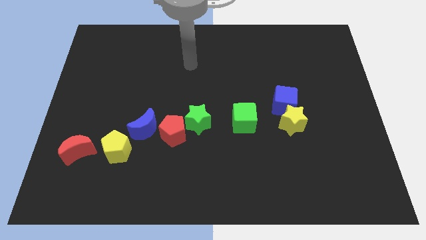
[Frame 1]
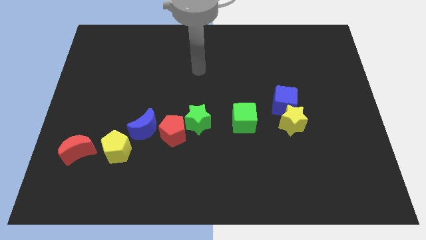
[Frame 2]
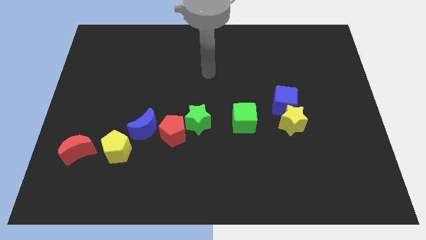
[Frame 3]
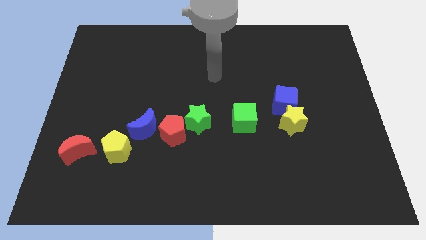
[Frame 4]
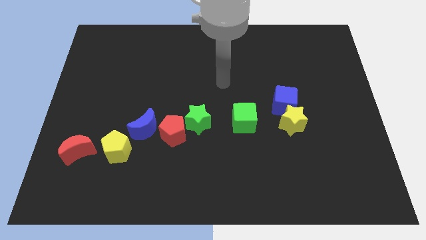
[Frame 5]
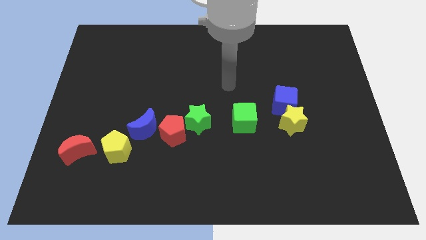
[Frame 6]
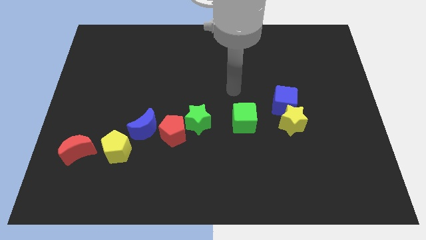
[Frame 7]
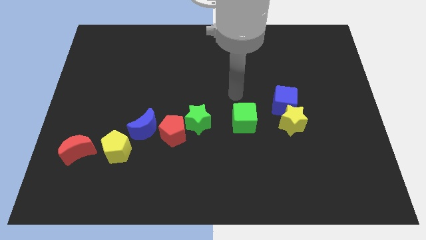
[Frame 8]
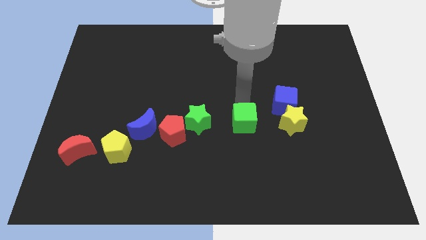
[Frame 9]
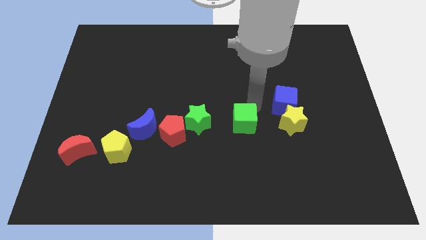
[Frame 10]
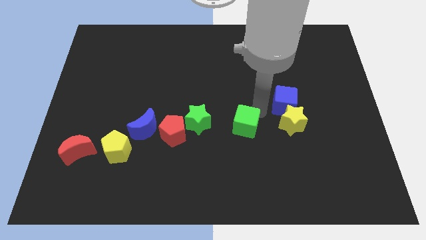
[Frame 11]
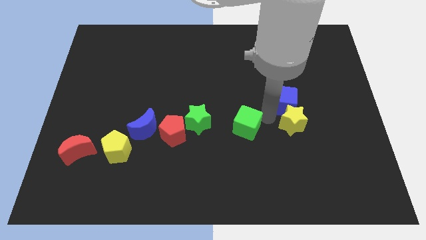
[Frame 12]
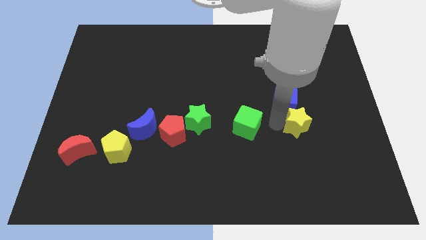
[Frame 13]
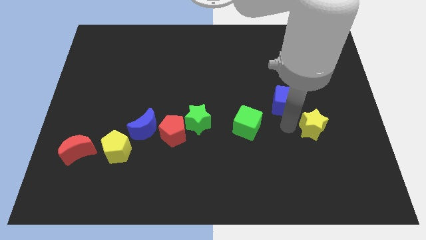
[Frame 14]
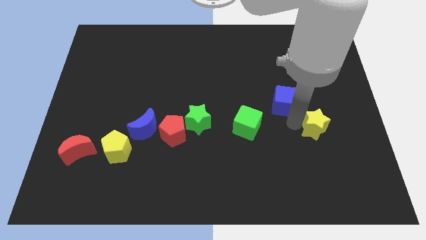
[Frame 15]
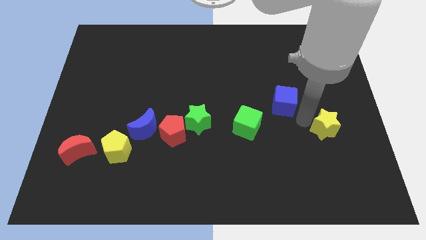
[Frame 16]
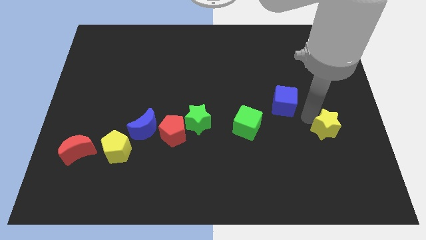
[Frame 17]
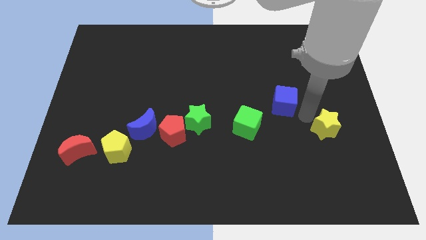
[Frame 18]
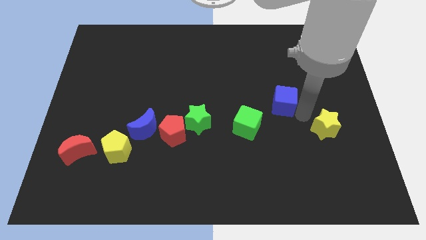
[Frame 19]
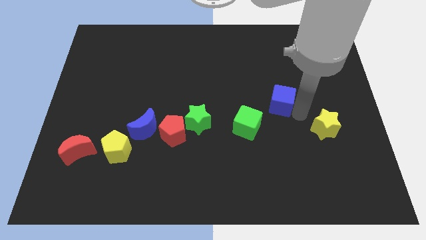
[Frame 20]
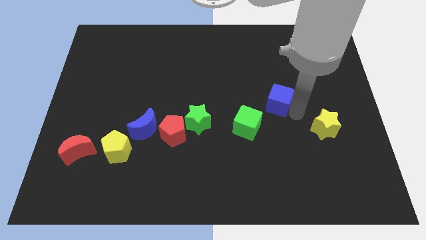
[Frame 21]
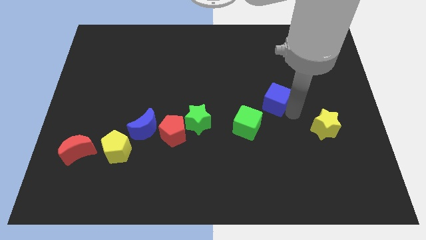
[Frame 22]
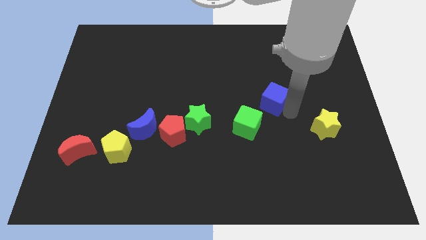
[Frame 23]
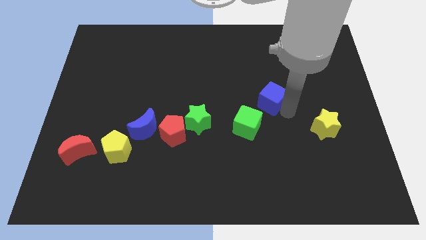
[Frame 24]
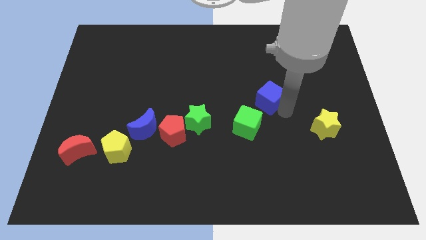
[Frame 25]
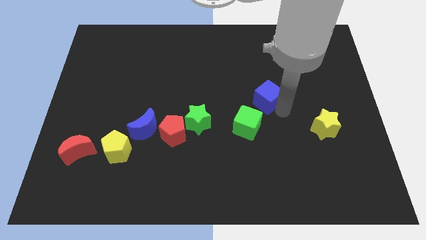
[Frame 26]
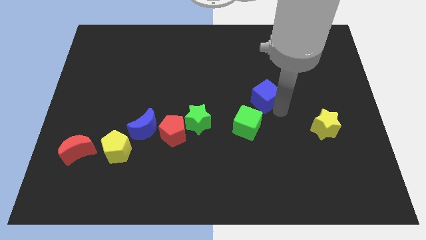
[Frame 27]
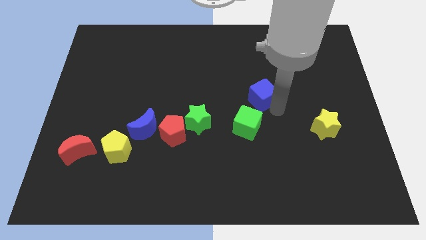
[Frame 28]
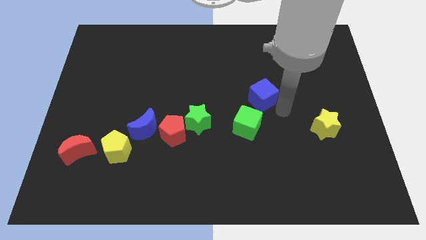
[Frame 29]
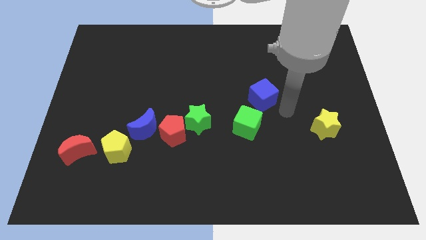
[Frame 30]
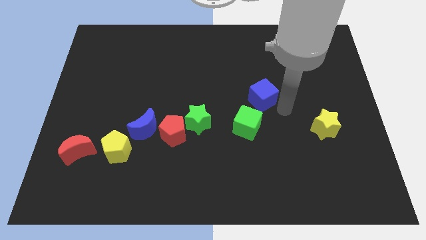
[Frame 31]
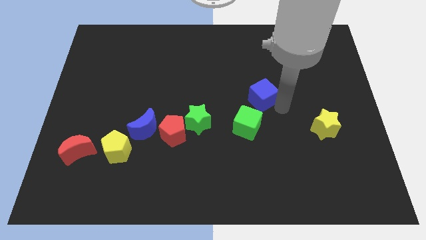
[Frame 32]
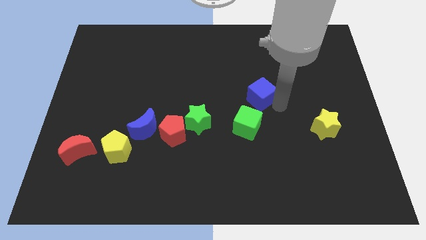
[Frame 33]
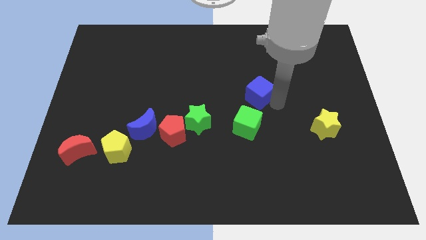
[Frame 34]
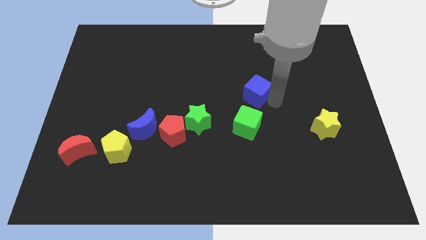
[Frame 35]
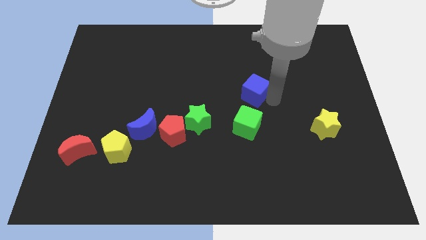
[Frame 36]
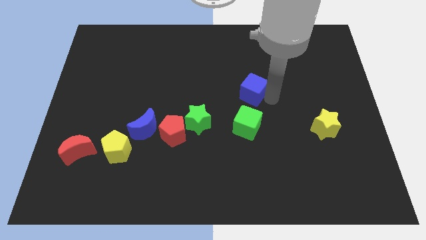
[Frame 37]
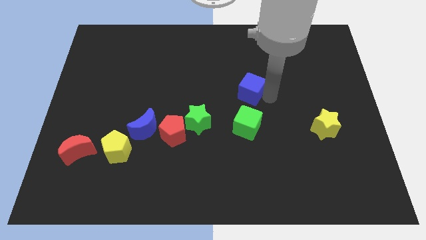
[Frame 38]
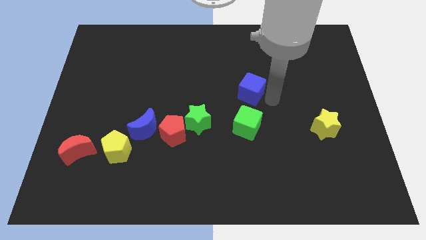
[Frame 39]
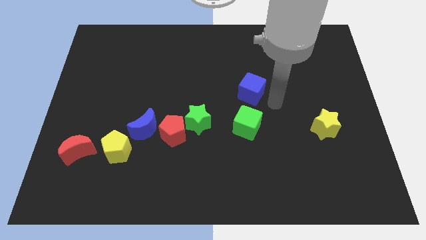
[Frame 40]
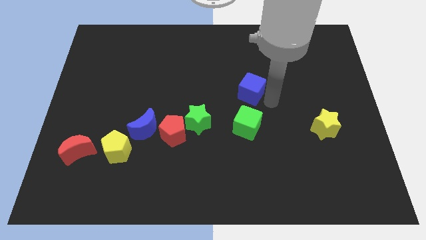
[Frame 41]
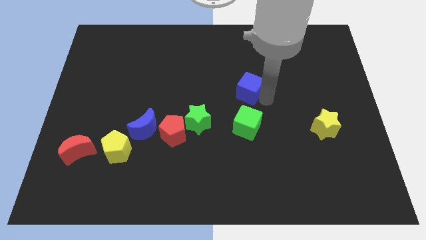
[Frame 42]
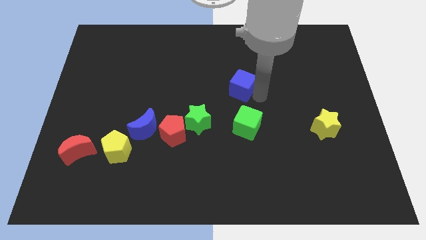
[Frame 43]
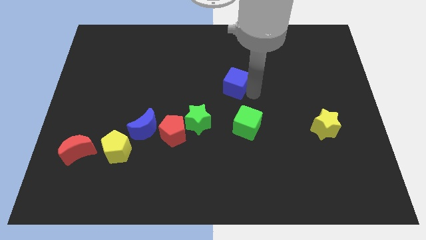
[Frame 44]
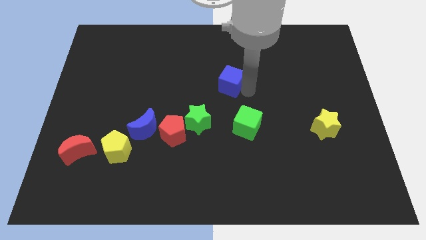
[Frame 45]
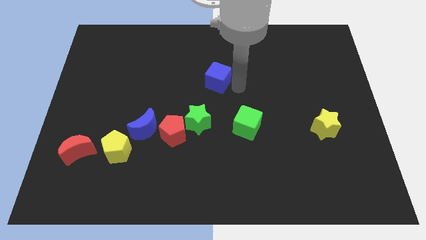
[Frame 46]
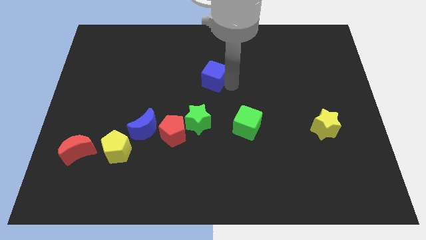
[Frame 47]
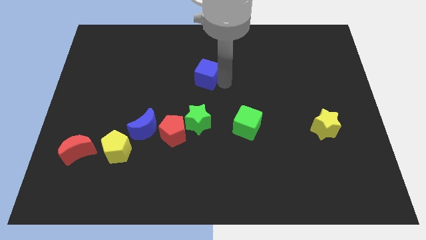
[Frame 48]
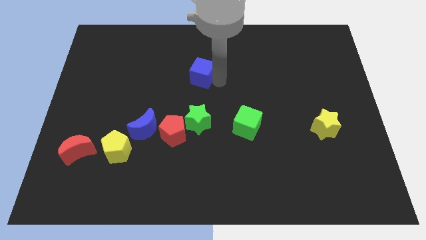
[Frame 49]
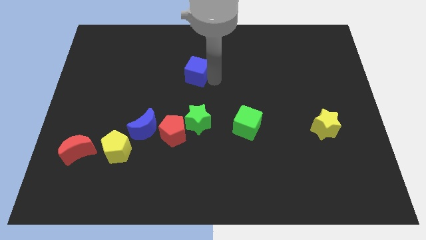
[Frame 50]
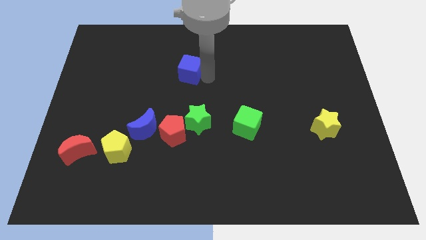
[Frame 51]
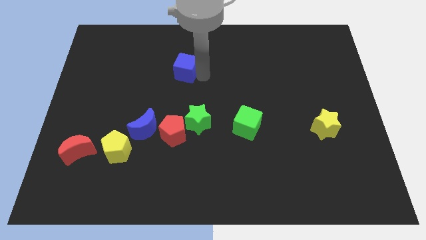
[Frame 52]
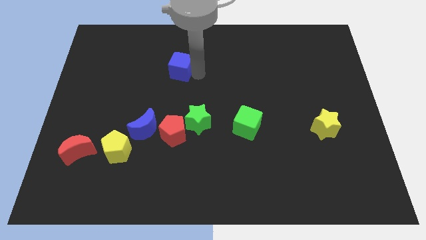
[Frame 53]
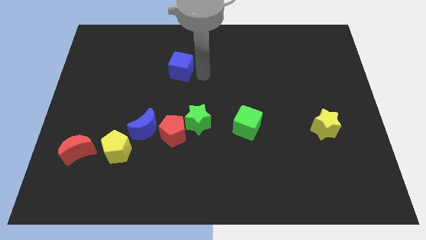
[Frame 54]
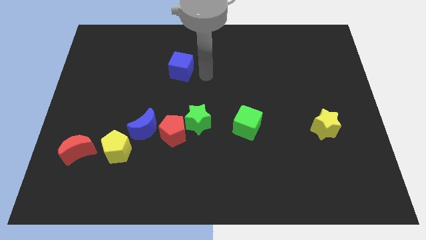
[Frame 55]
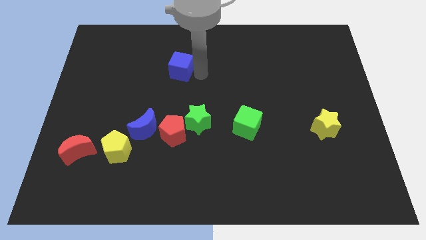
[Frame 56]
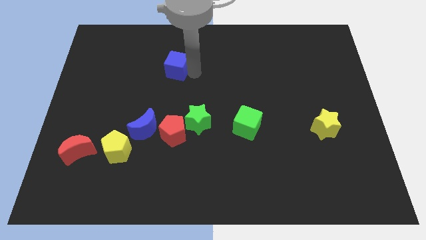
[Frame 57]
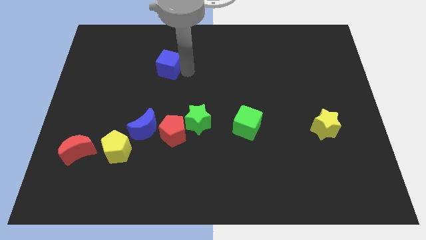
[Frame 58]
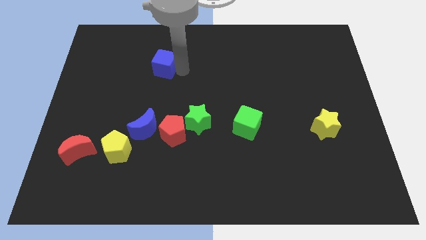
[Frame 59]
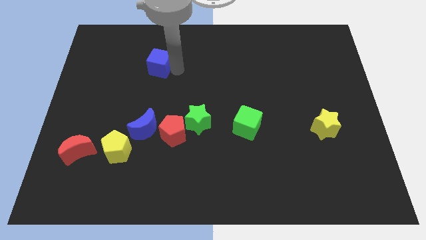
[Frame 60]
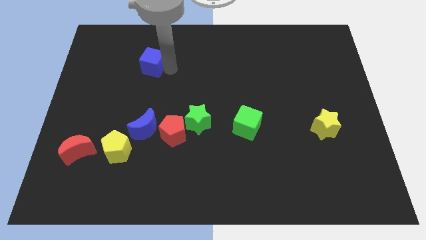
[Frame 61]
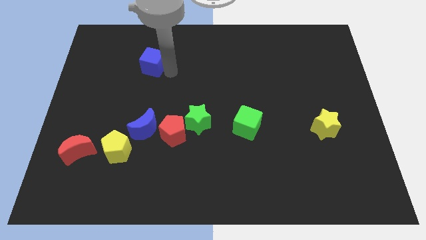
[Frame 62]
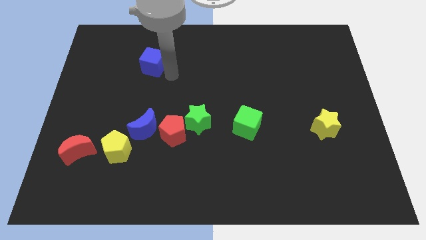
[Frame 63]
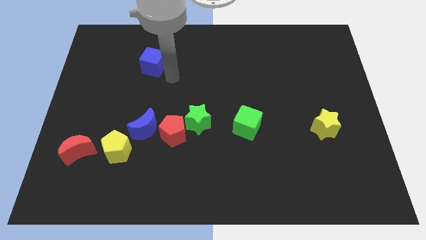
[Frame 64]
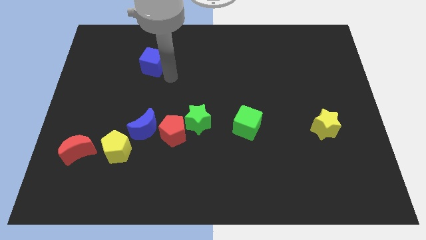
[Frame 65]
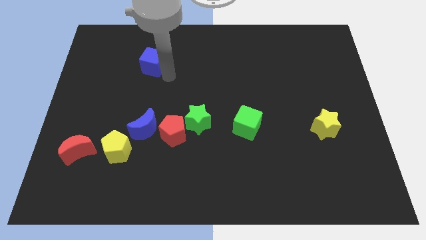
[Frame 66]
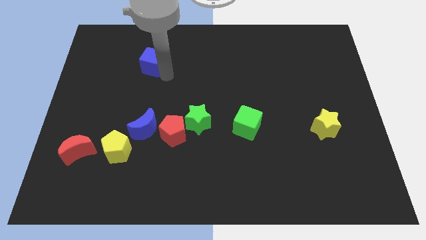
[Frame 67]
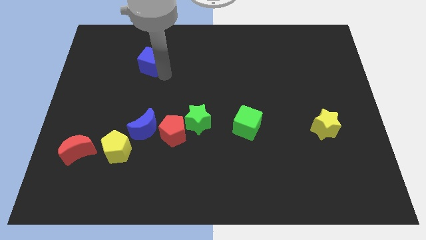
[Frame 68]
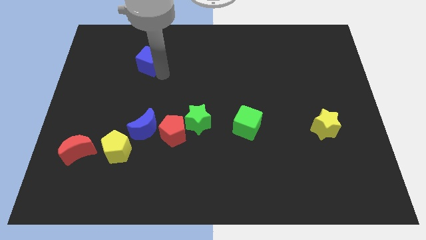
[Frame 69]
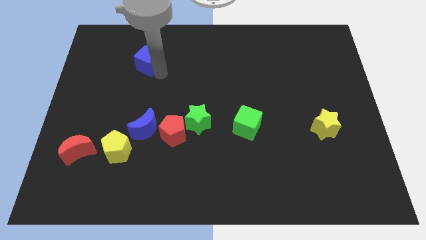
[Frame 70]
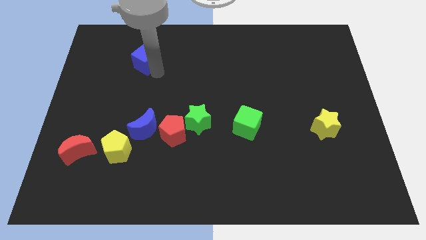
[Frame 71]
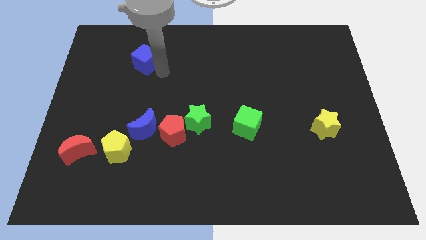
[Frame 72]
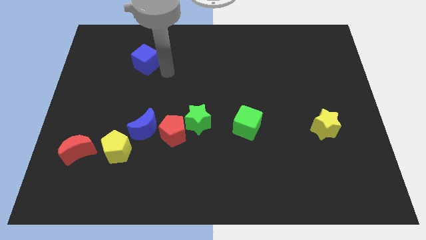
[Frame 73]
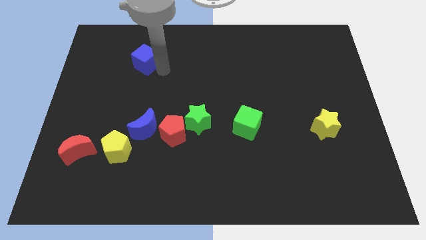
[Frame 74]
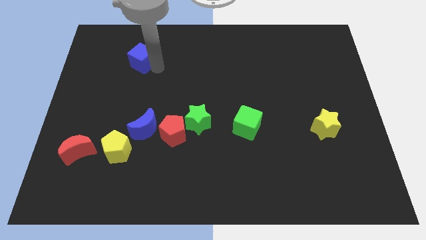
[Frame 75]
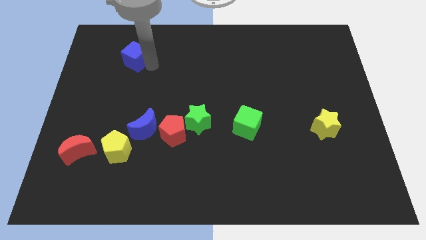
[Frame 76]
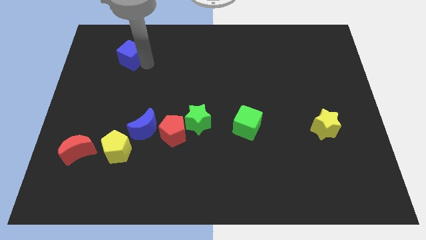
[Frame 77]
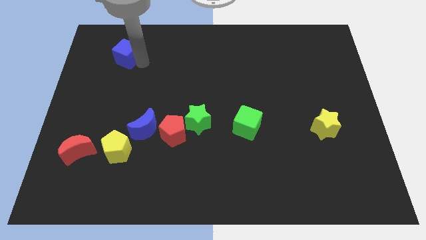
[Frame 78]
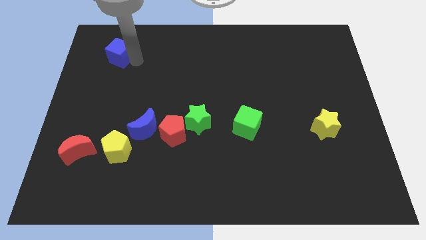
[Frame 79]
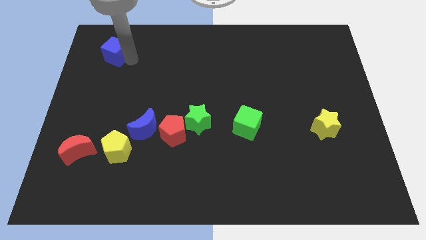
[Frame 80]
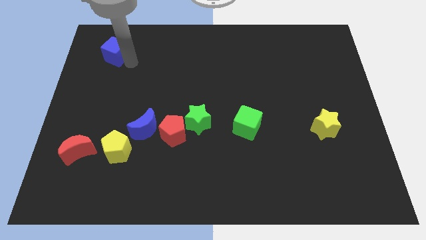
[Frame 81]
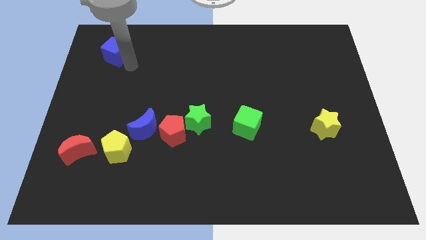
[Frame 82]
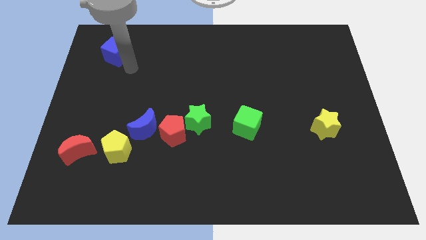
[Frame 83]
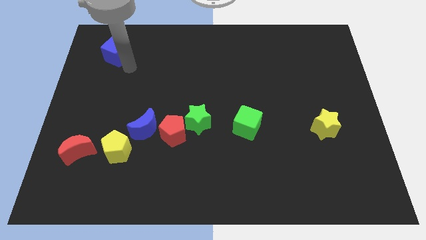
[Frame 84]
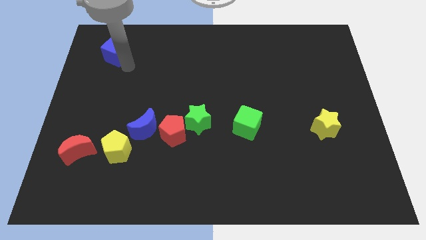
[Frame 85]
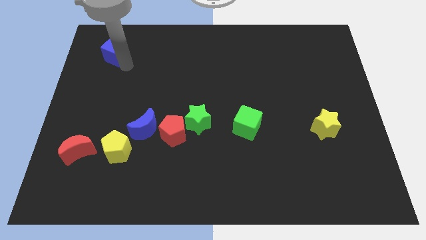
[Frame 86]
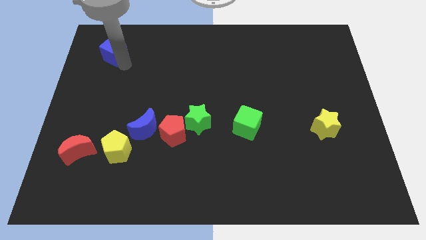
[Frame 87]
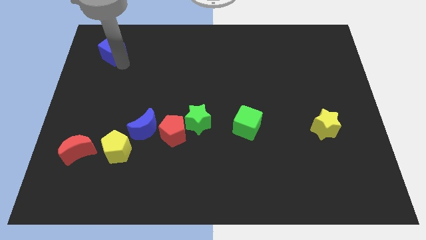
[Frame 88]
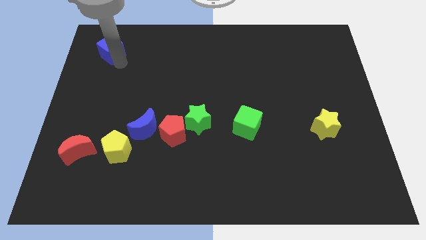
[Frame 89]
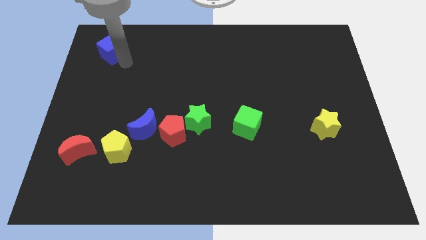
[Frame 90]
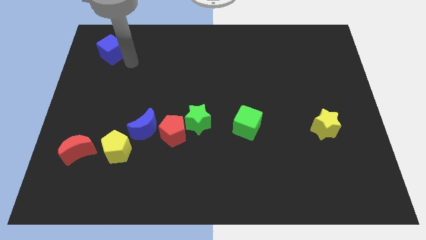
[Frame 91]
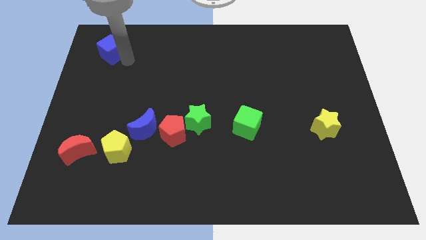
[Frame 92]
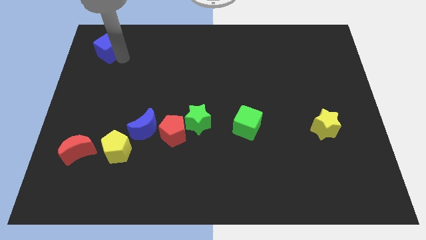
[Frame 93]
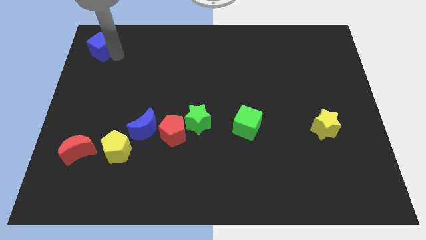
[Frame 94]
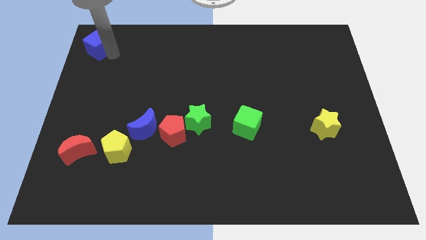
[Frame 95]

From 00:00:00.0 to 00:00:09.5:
move the blue cube to the top left
